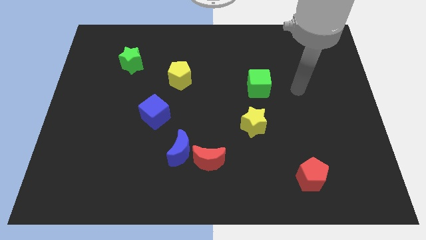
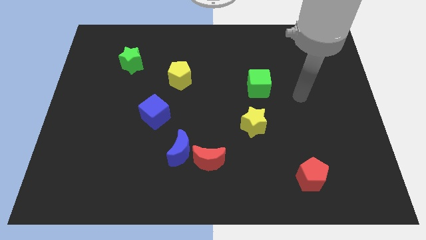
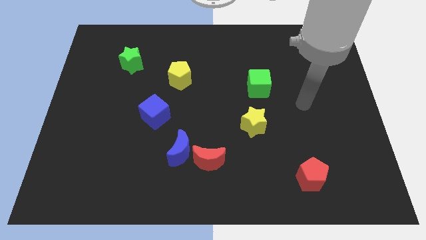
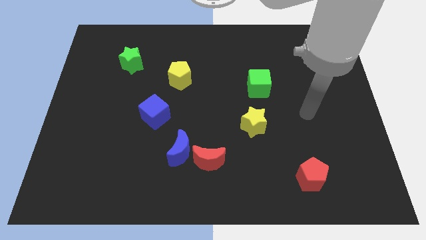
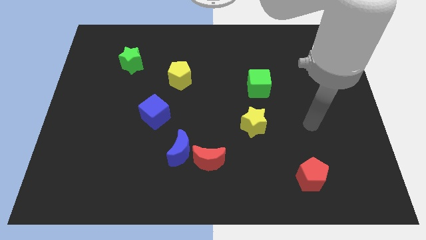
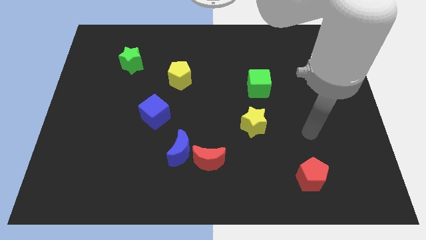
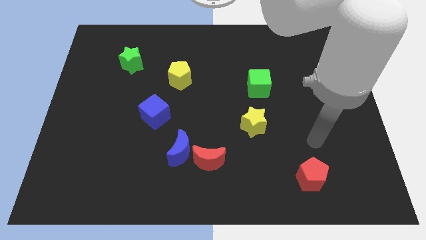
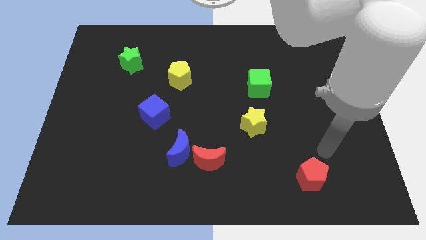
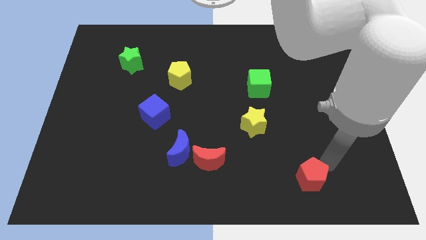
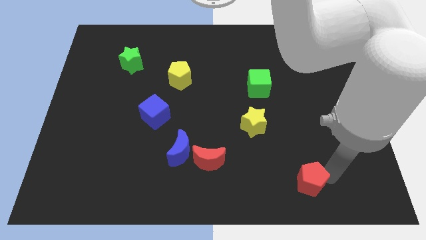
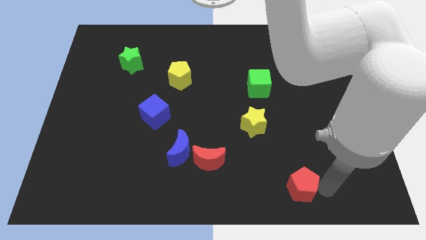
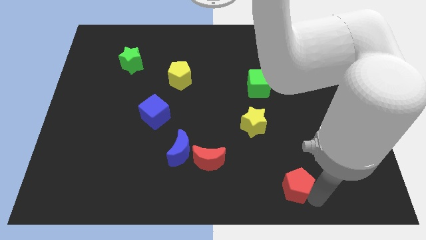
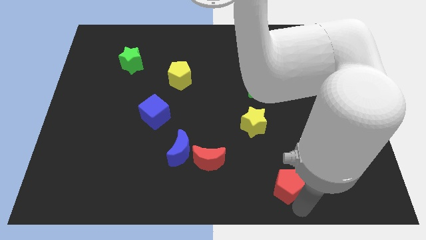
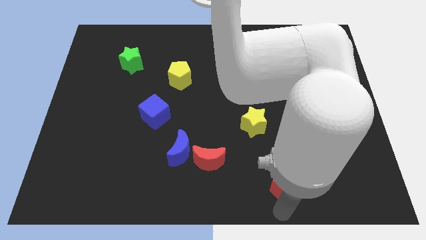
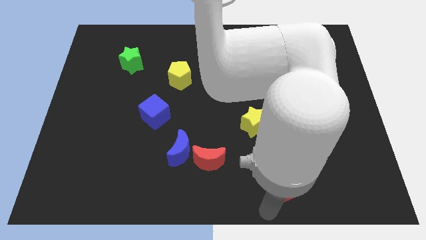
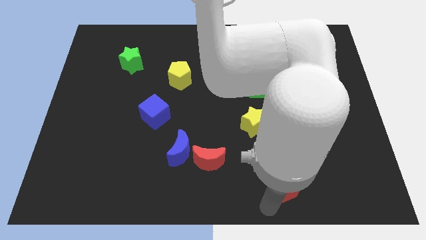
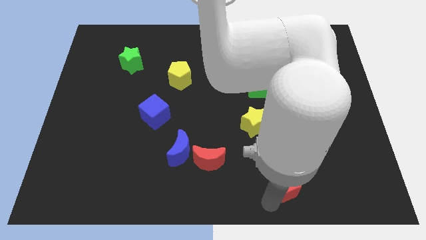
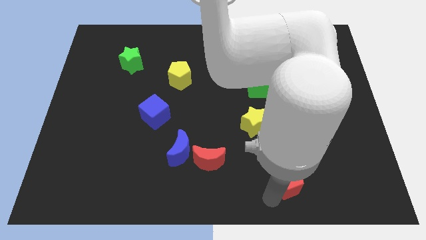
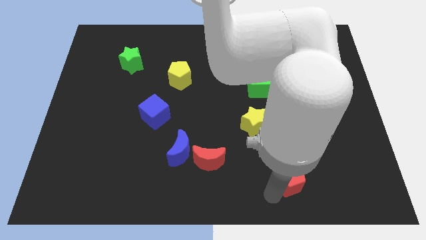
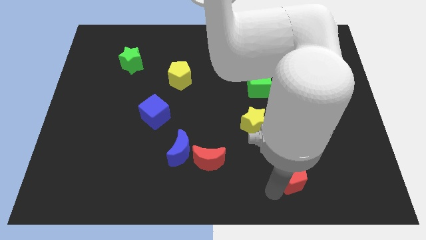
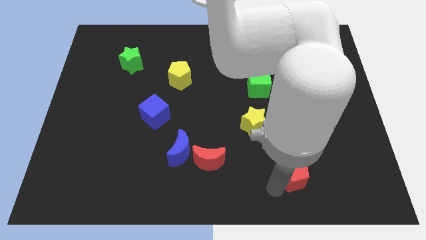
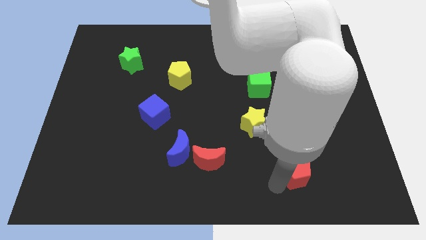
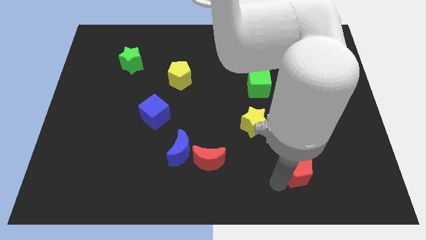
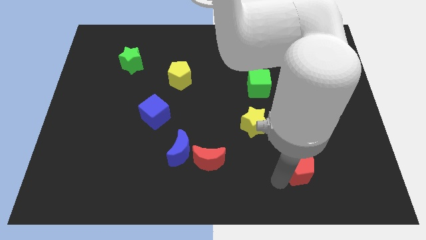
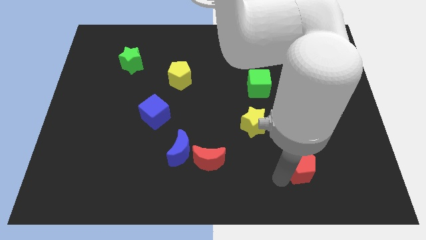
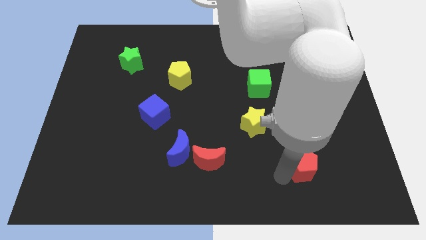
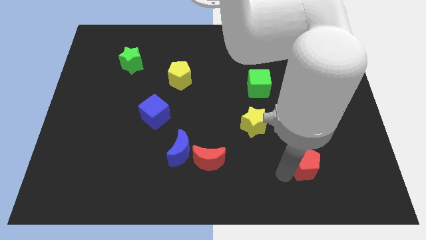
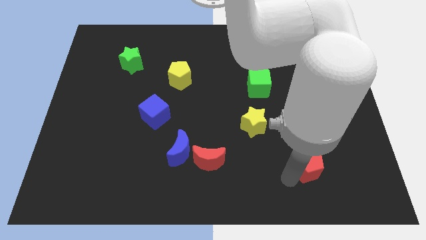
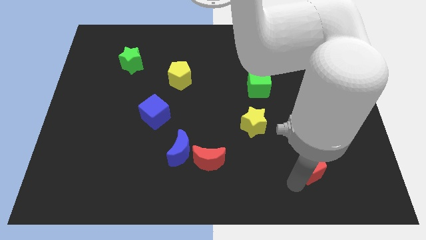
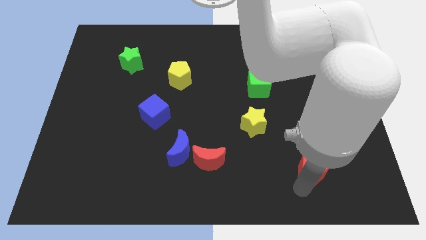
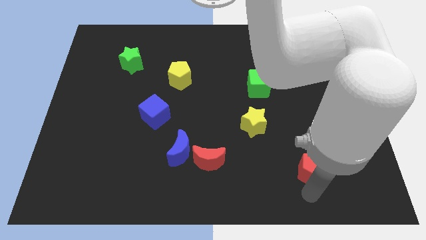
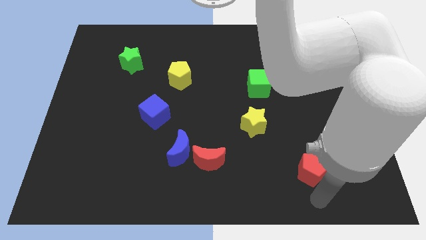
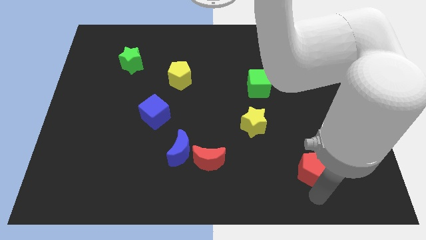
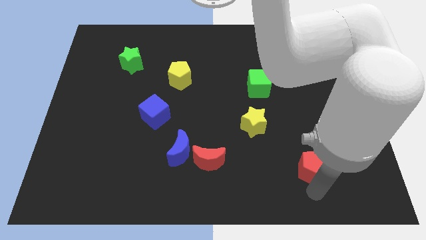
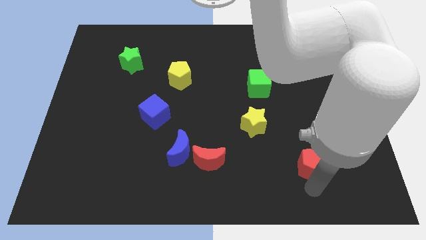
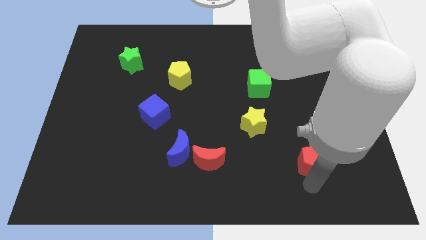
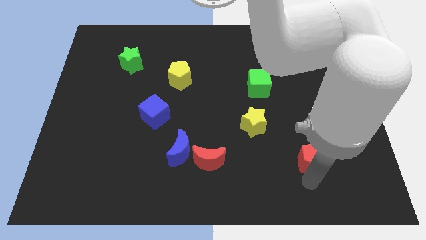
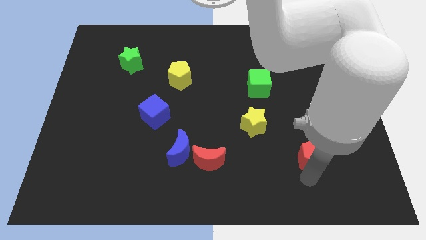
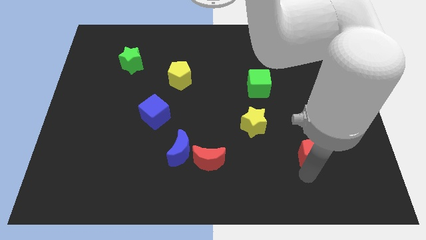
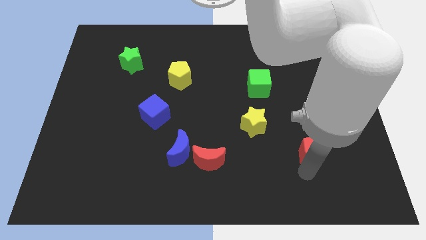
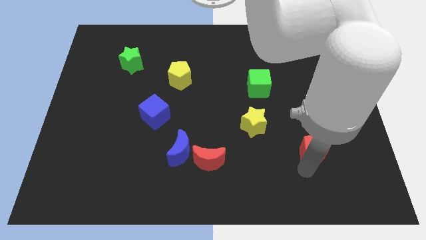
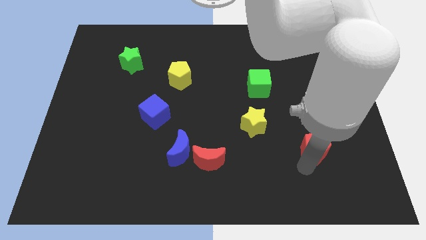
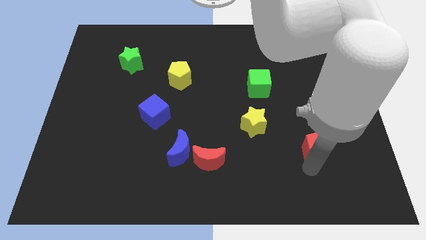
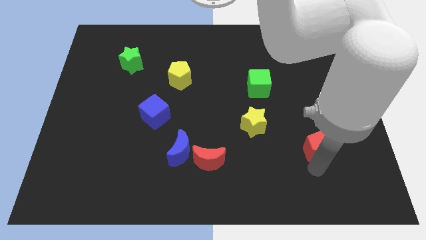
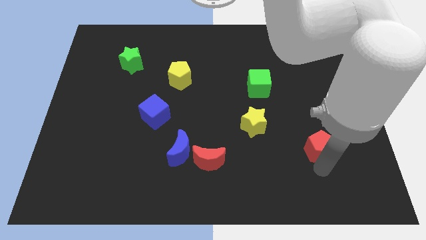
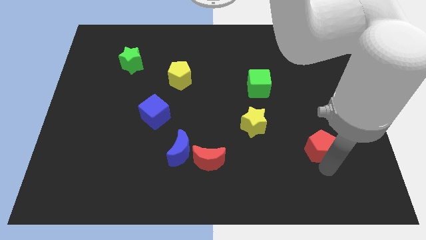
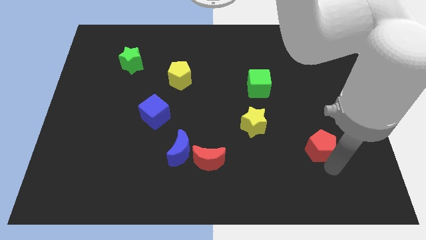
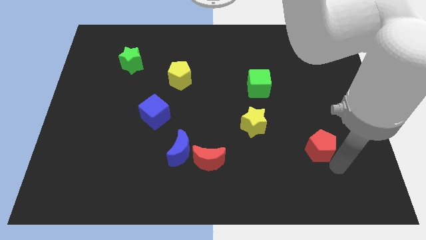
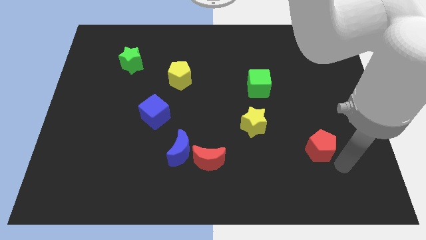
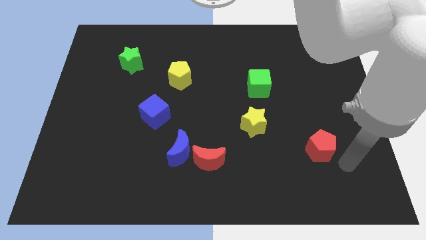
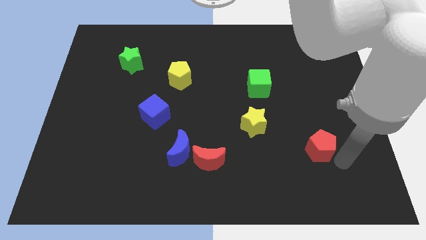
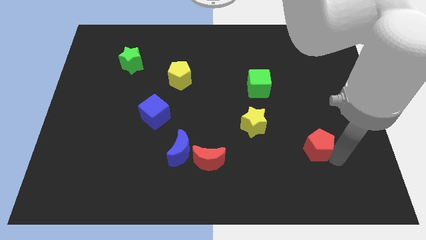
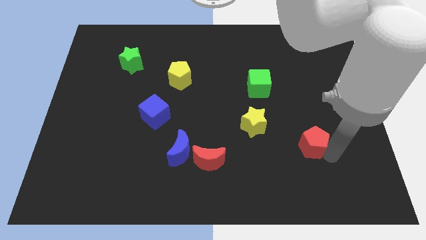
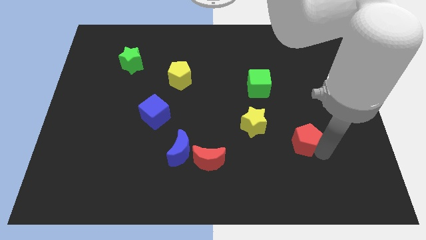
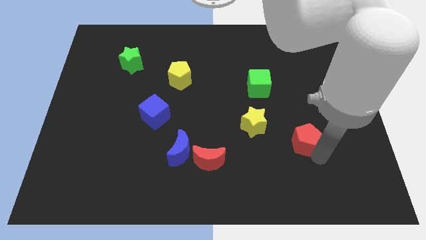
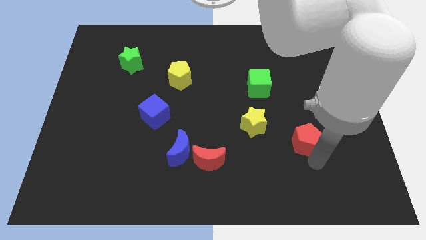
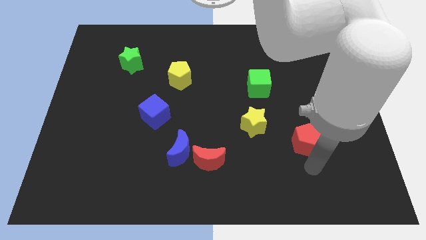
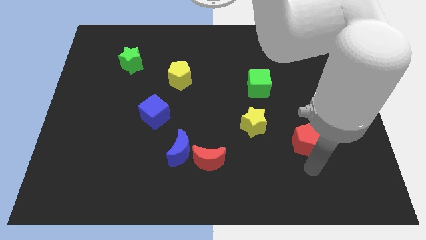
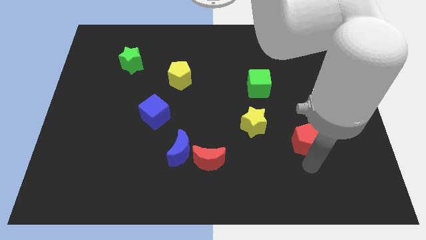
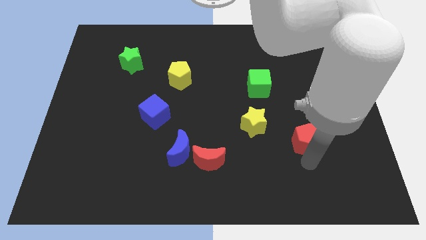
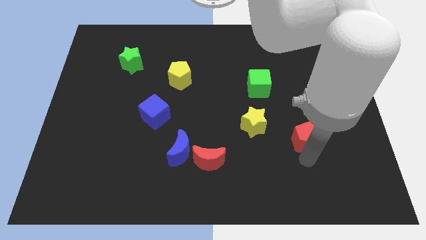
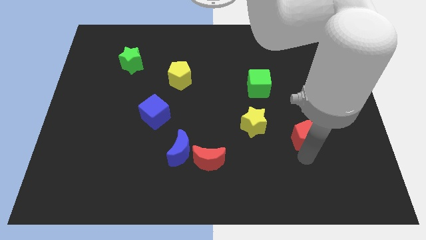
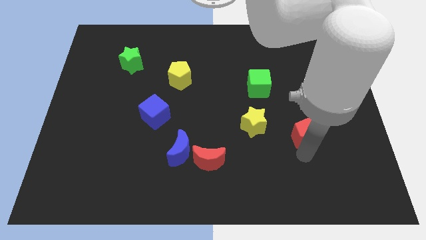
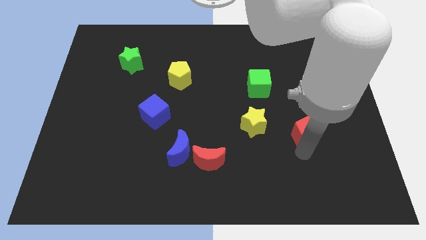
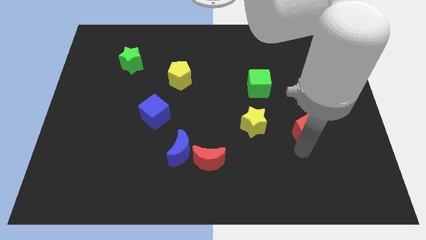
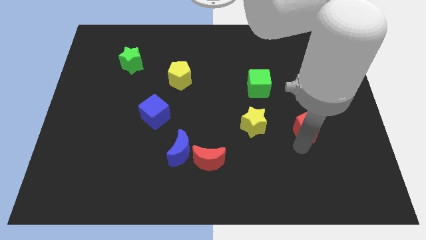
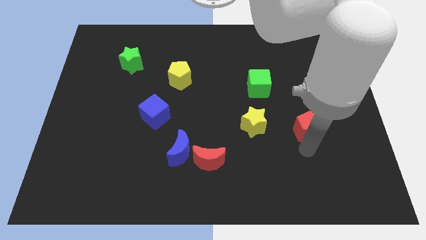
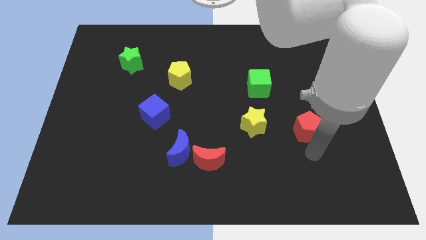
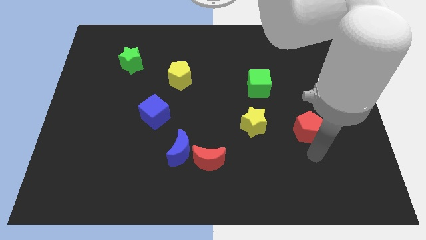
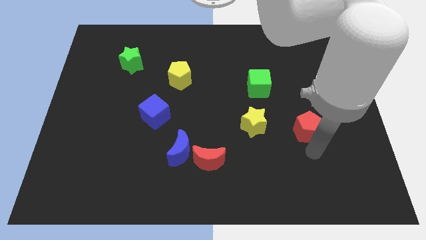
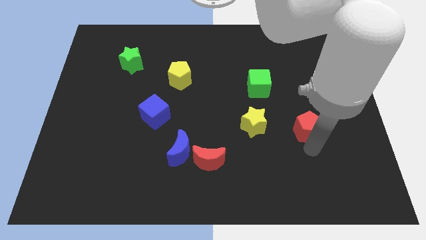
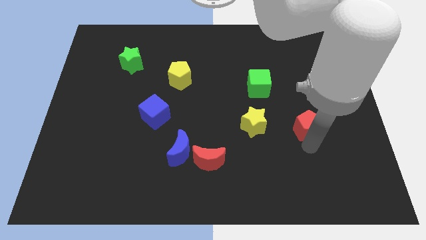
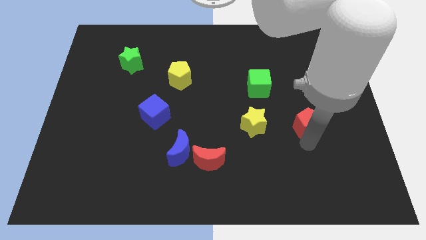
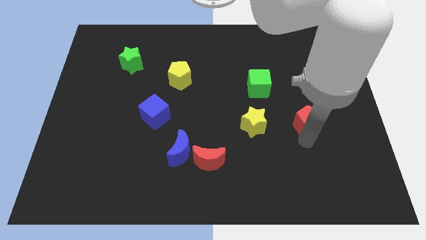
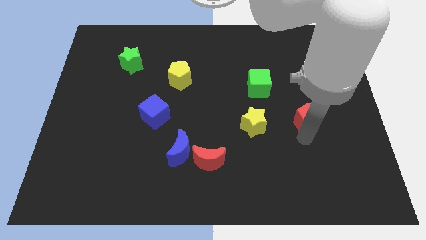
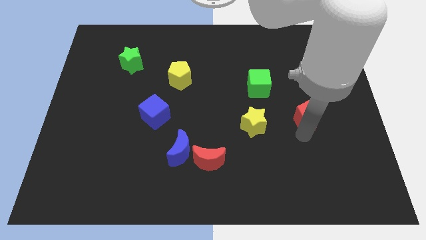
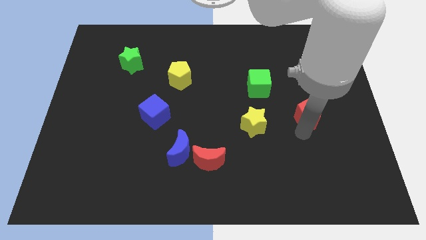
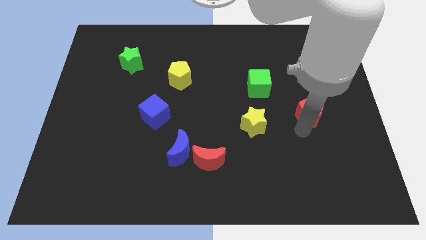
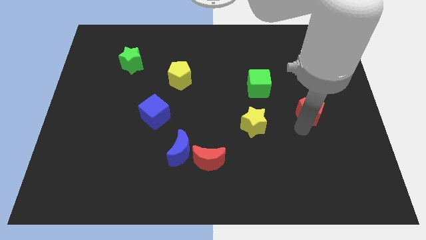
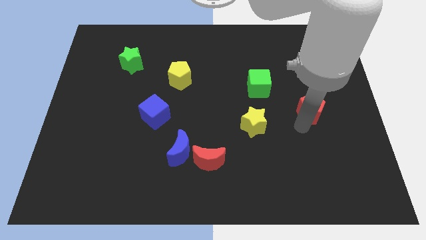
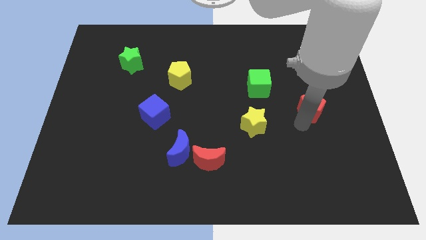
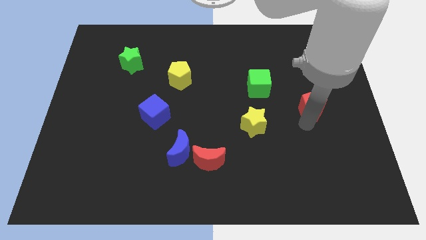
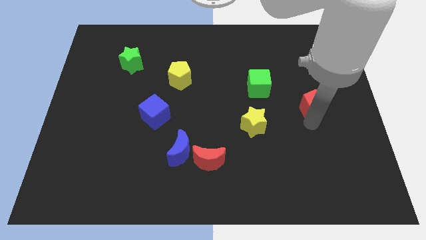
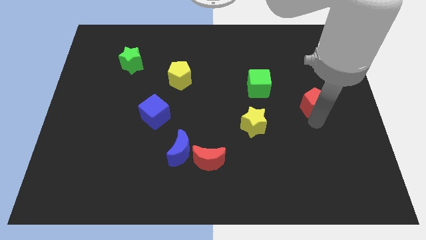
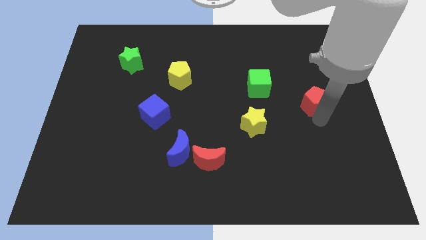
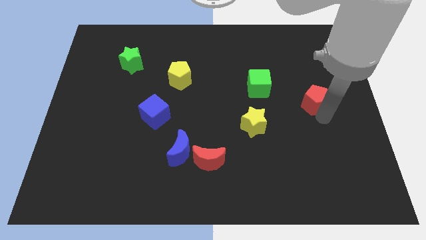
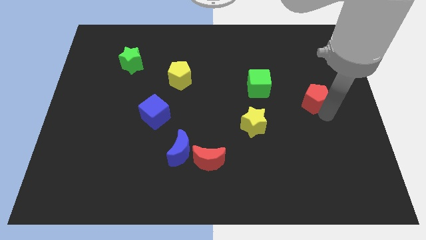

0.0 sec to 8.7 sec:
push the red pentagon to the right side of the green cube
